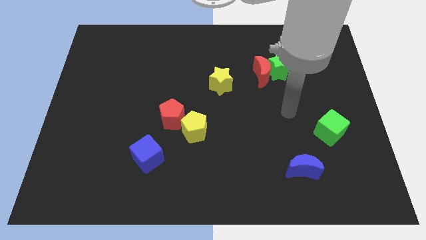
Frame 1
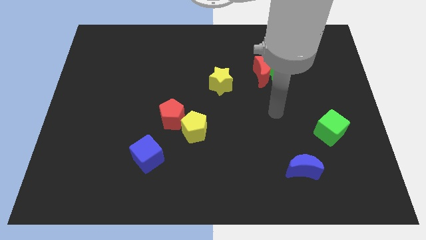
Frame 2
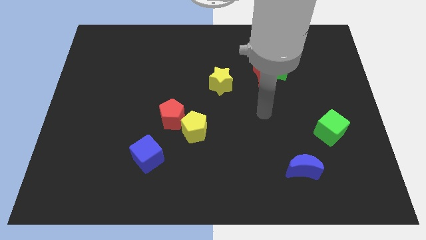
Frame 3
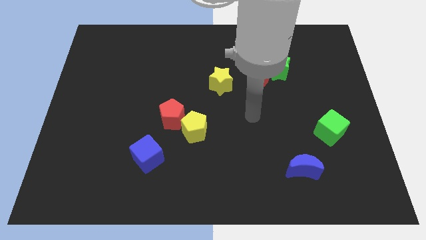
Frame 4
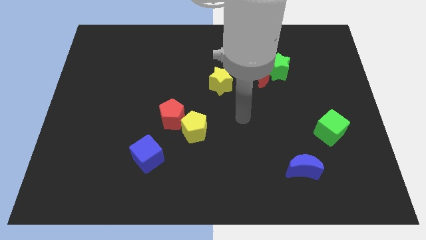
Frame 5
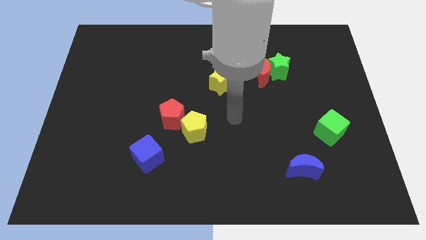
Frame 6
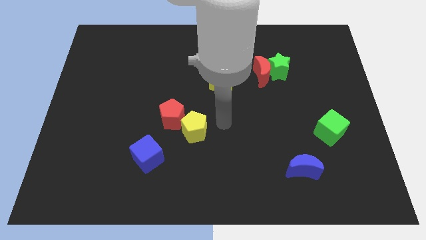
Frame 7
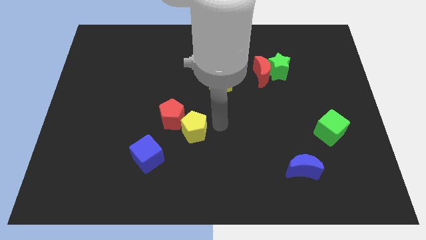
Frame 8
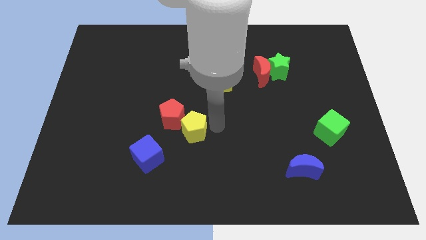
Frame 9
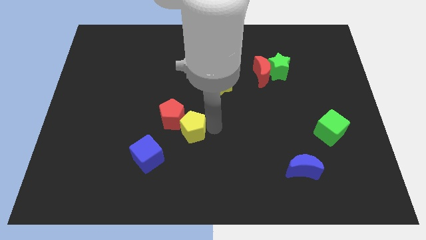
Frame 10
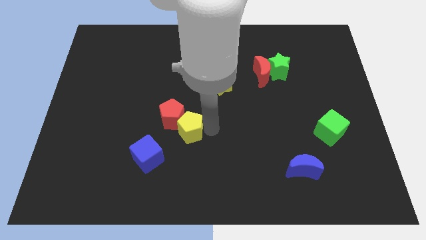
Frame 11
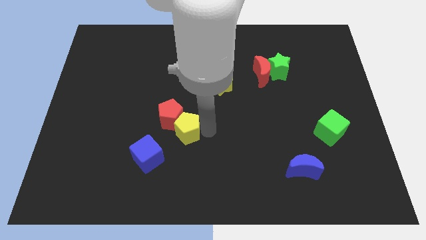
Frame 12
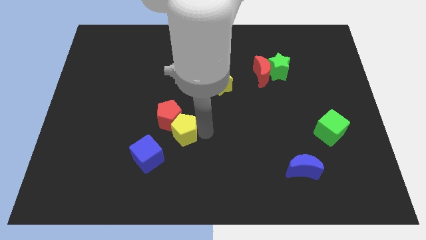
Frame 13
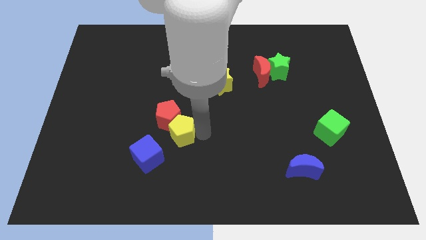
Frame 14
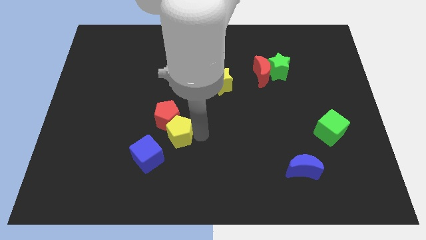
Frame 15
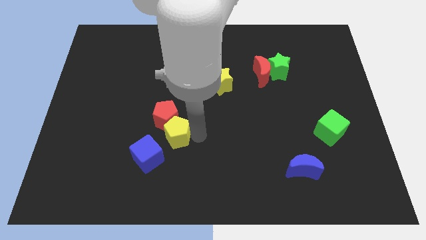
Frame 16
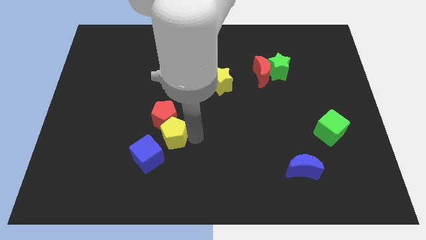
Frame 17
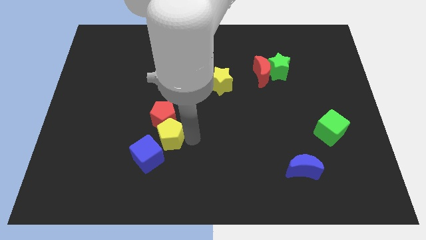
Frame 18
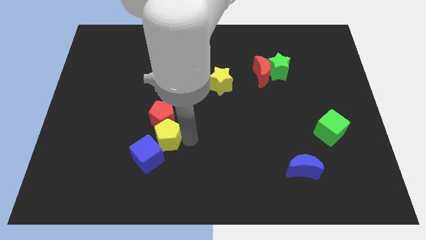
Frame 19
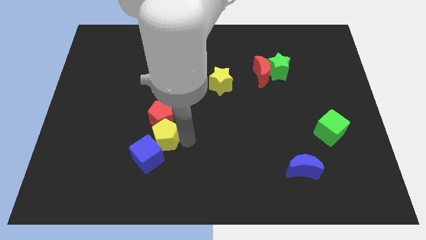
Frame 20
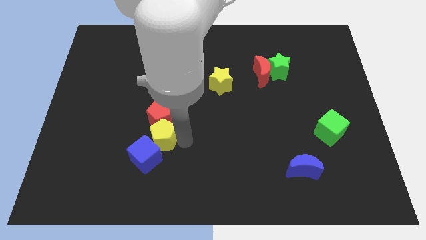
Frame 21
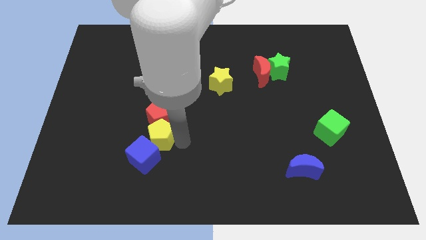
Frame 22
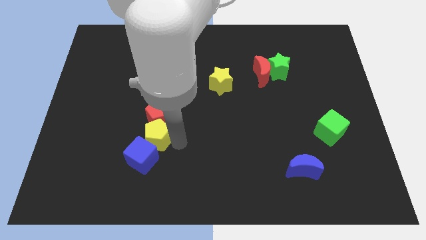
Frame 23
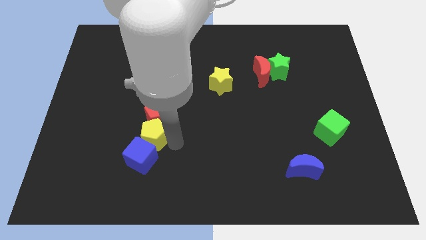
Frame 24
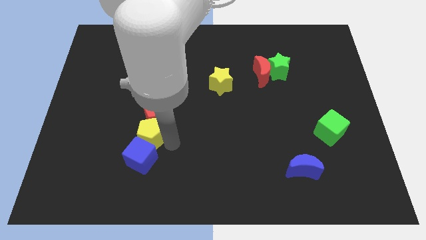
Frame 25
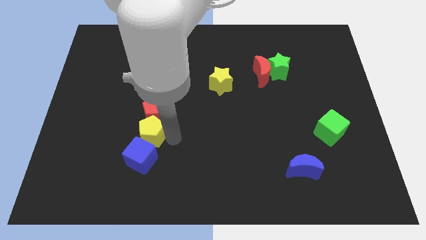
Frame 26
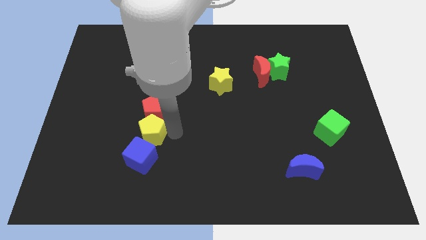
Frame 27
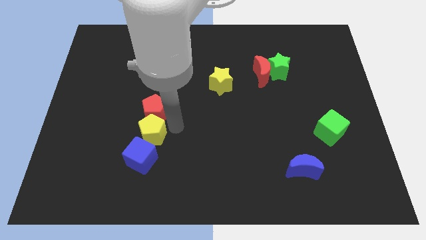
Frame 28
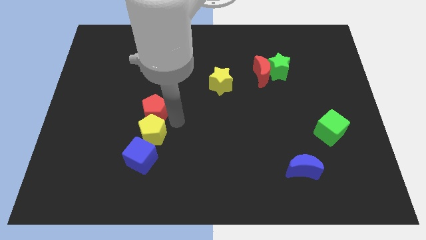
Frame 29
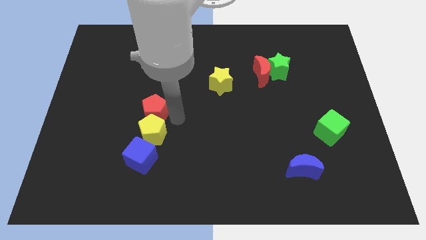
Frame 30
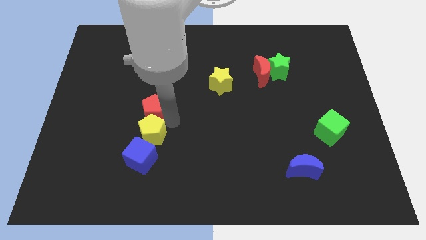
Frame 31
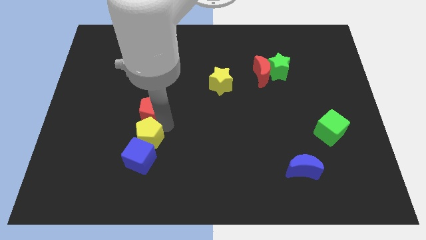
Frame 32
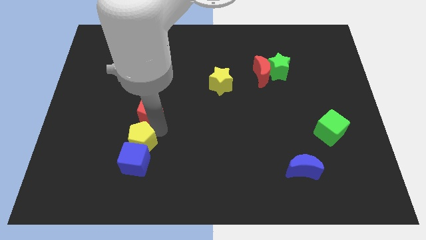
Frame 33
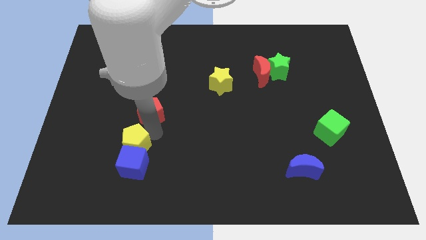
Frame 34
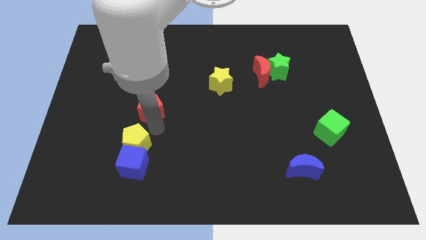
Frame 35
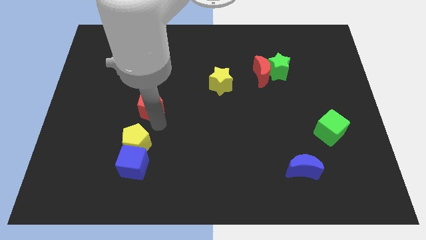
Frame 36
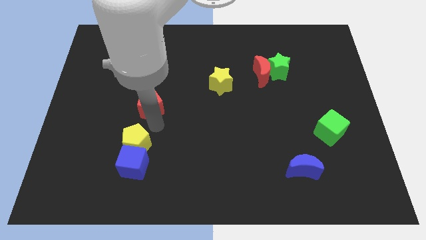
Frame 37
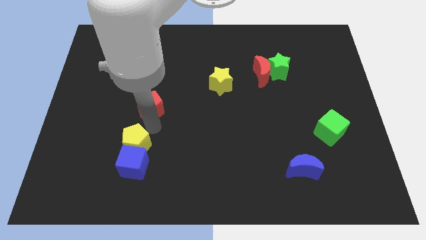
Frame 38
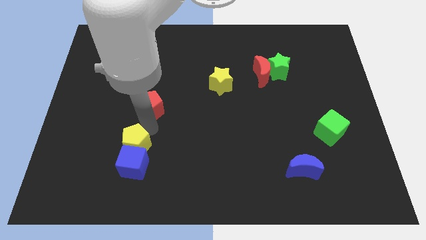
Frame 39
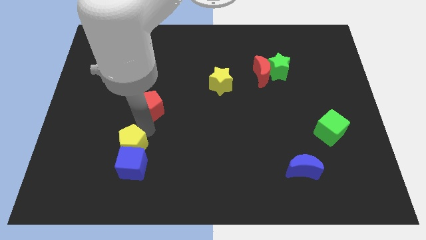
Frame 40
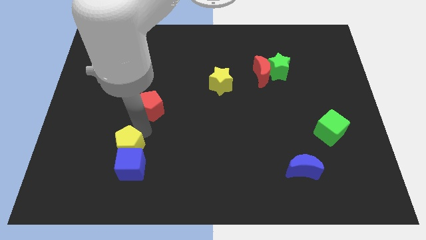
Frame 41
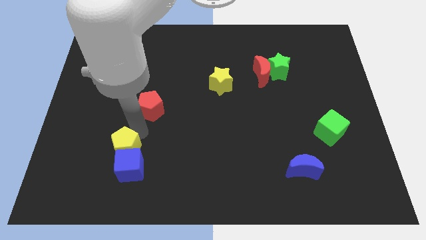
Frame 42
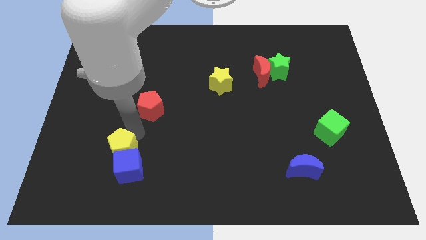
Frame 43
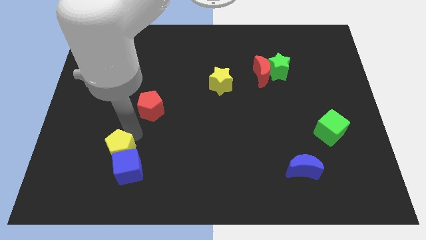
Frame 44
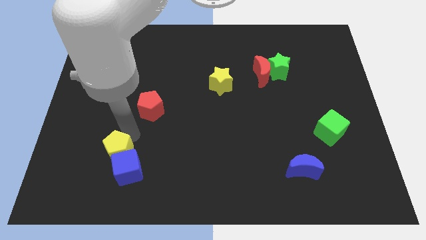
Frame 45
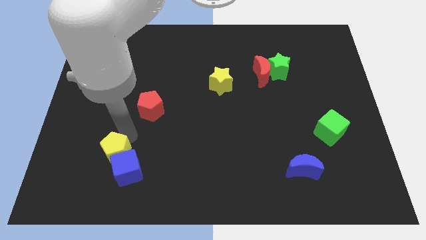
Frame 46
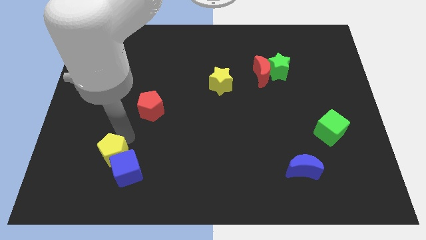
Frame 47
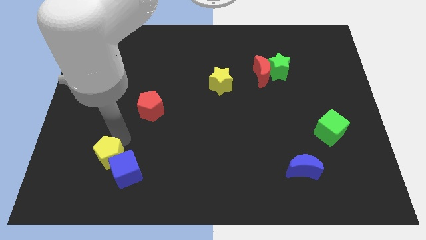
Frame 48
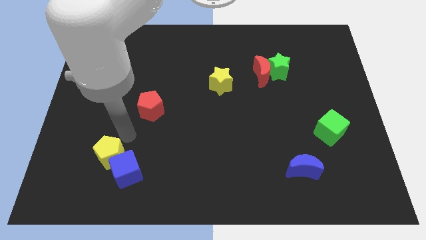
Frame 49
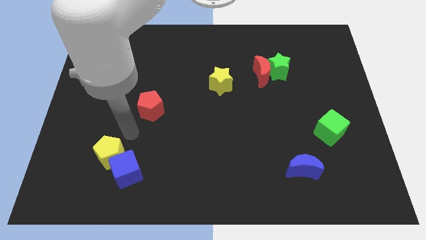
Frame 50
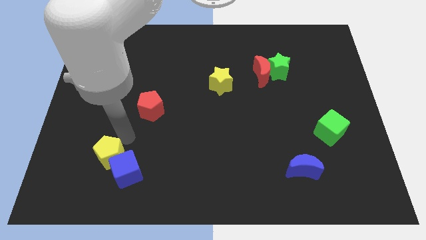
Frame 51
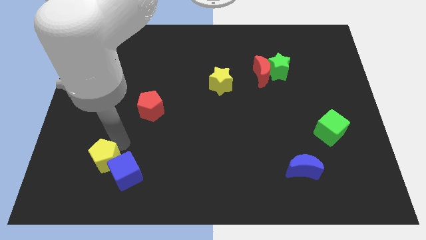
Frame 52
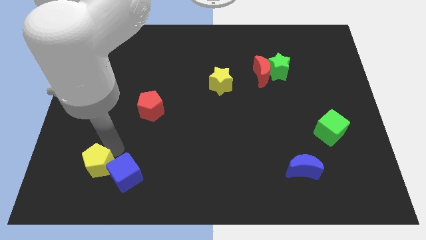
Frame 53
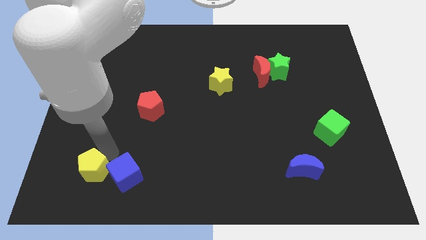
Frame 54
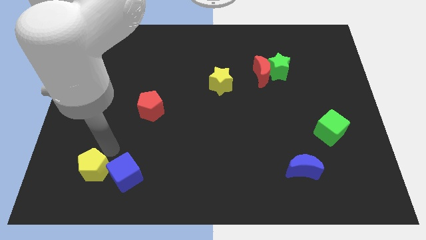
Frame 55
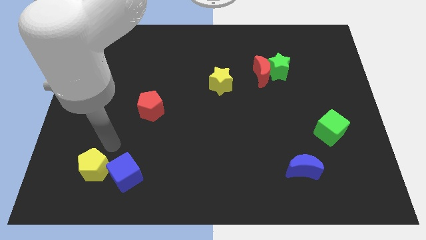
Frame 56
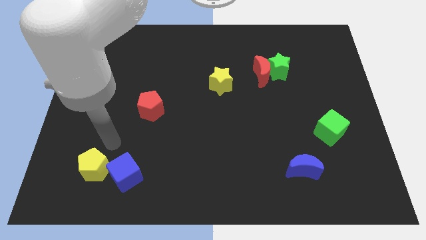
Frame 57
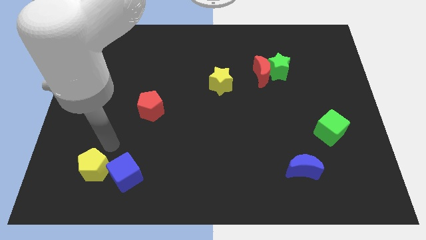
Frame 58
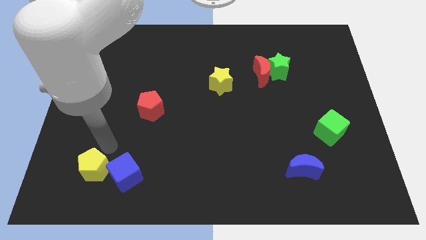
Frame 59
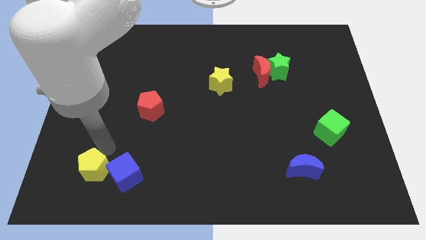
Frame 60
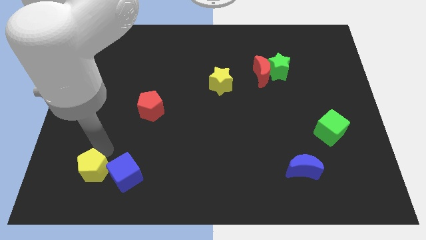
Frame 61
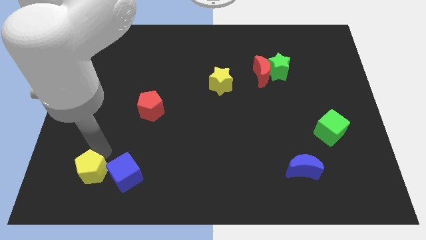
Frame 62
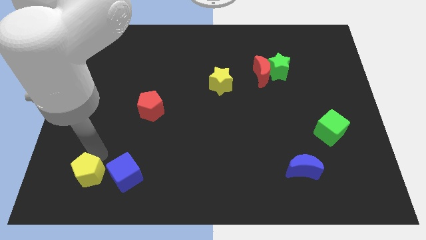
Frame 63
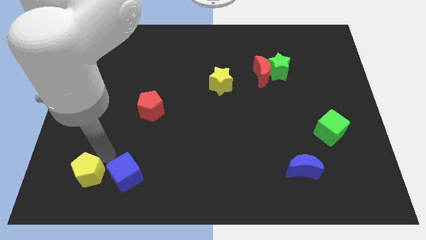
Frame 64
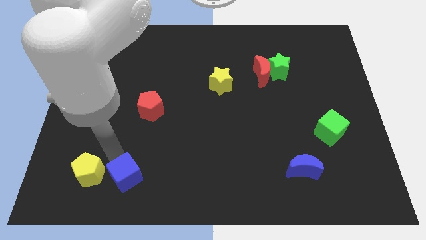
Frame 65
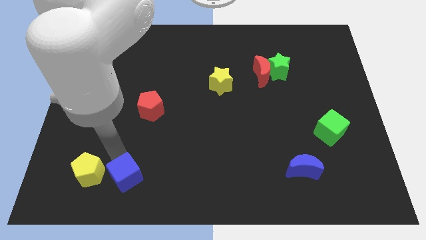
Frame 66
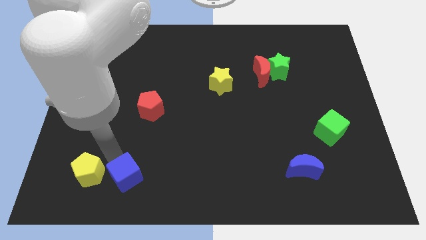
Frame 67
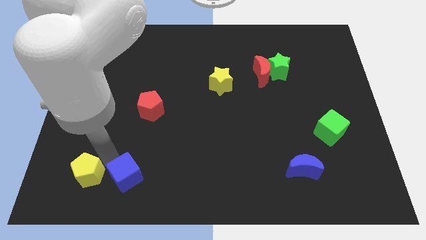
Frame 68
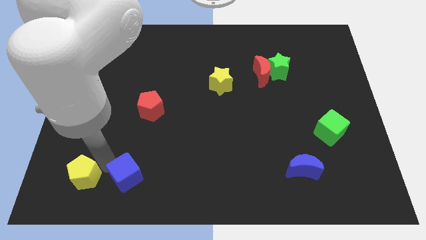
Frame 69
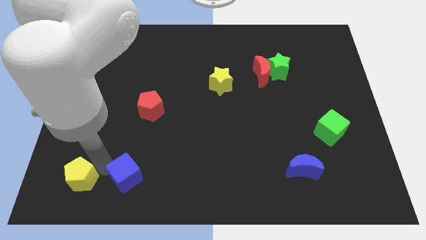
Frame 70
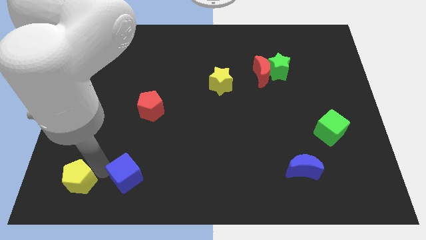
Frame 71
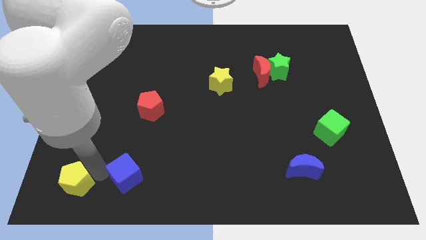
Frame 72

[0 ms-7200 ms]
put the yellow pentagon to the lower left corner
